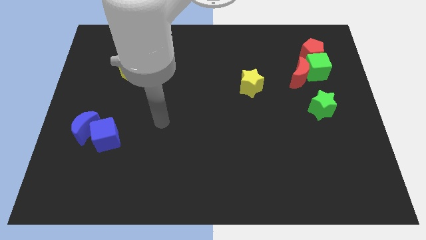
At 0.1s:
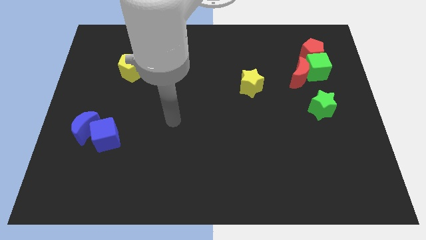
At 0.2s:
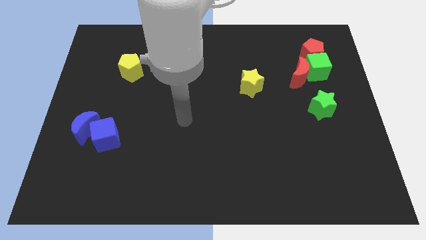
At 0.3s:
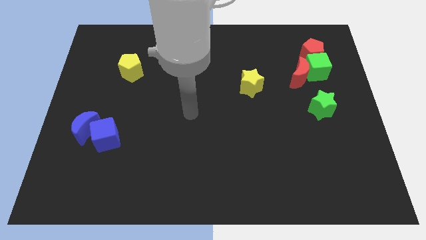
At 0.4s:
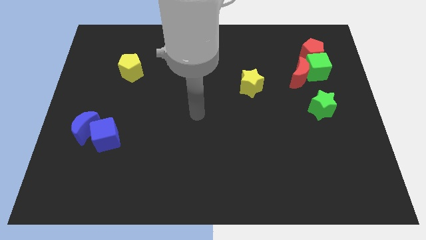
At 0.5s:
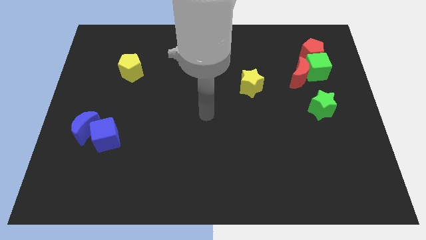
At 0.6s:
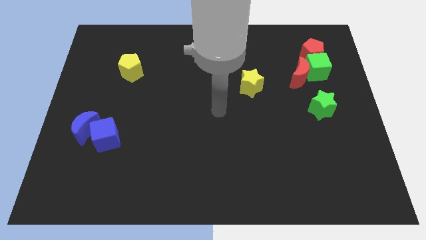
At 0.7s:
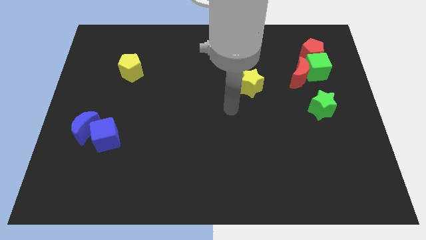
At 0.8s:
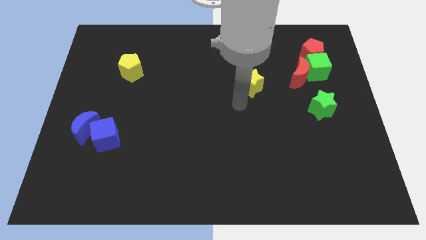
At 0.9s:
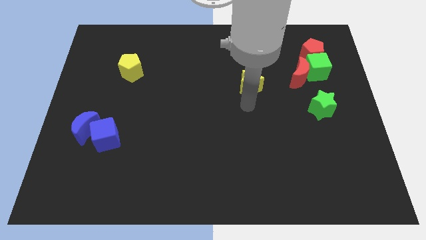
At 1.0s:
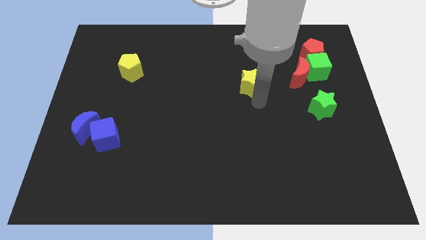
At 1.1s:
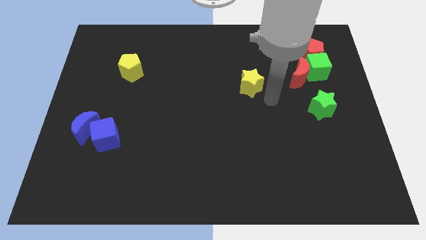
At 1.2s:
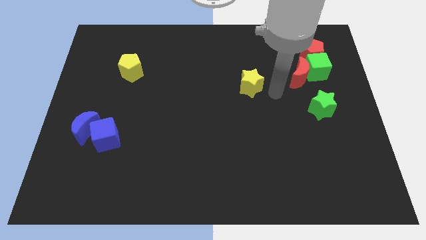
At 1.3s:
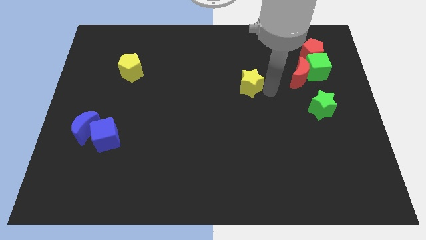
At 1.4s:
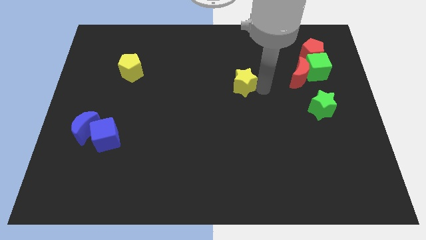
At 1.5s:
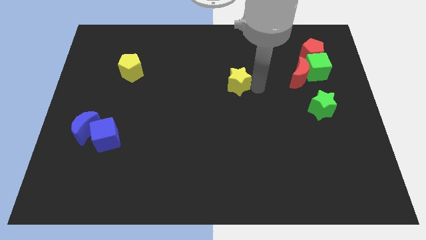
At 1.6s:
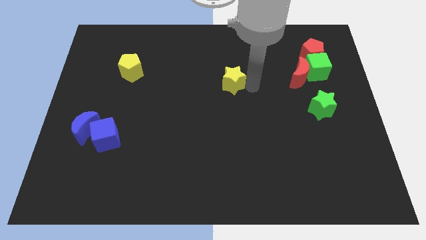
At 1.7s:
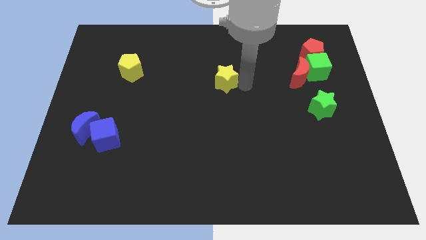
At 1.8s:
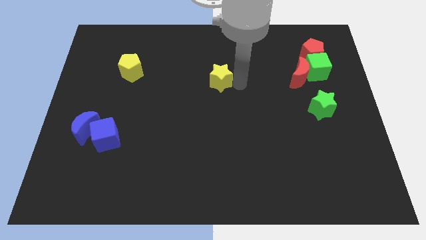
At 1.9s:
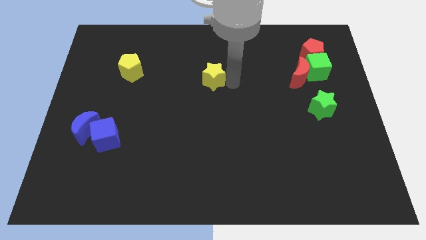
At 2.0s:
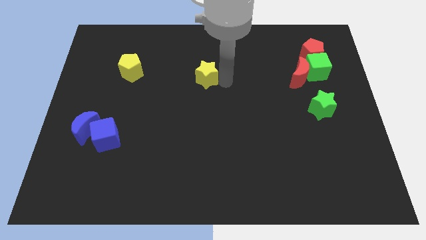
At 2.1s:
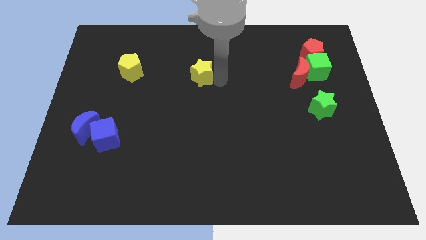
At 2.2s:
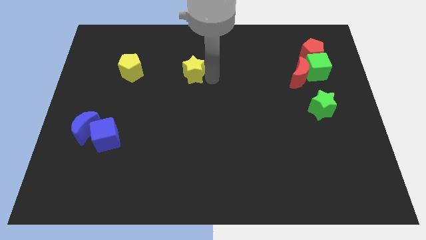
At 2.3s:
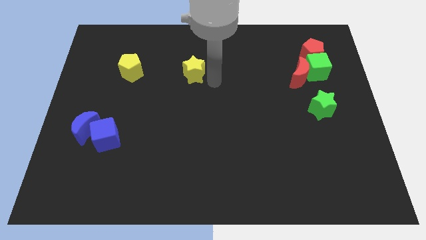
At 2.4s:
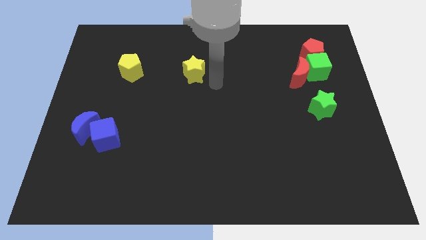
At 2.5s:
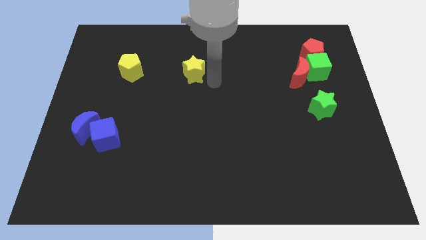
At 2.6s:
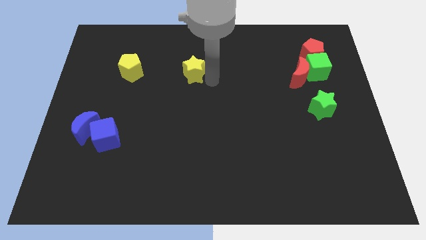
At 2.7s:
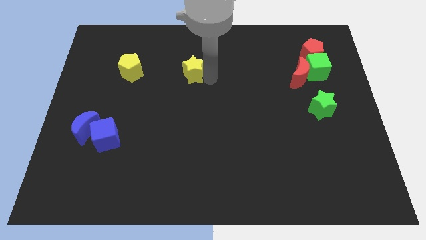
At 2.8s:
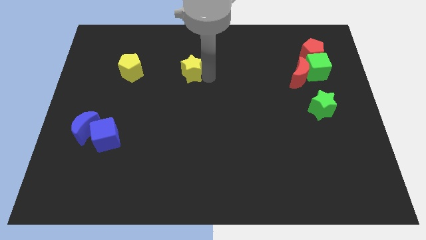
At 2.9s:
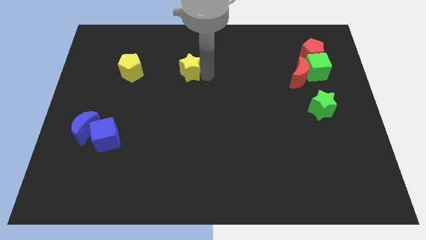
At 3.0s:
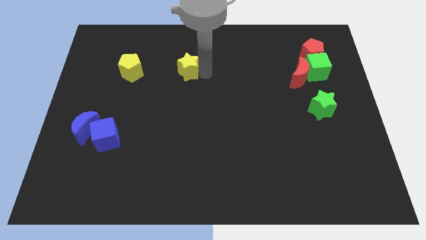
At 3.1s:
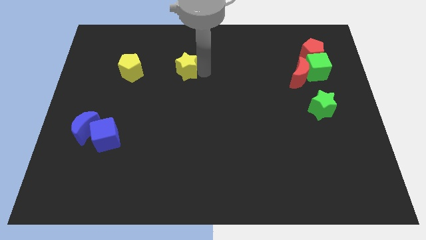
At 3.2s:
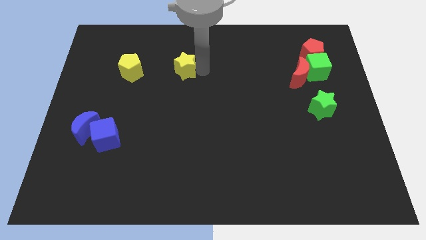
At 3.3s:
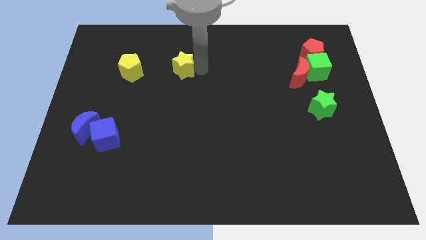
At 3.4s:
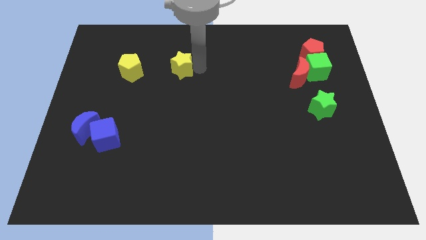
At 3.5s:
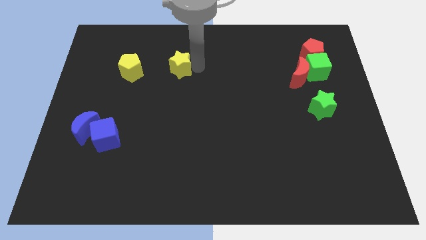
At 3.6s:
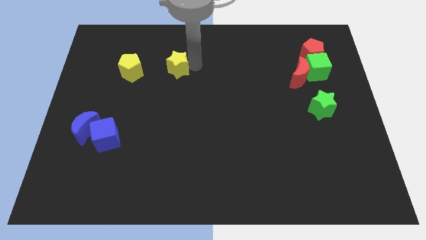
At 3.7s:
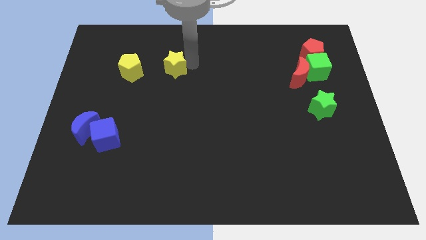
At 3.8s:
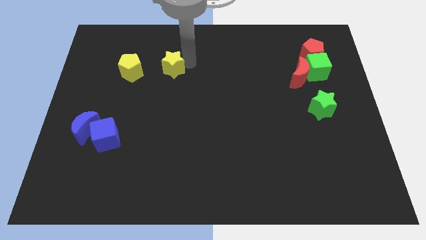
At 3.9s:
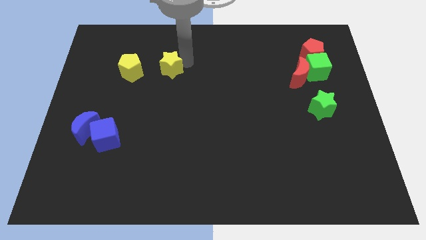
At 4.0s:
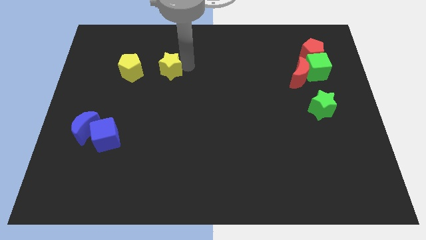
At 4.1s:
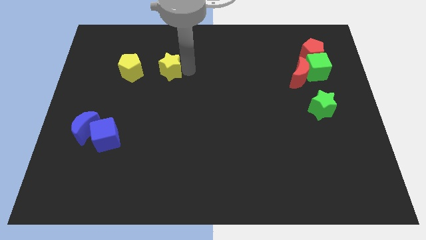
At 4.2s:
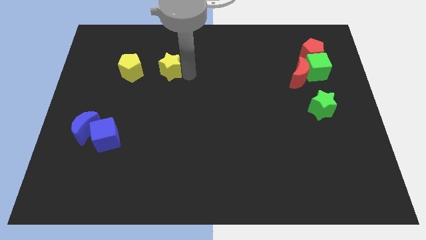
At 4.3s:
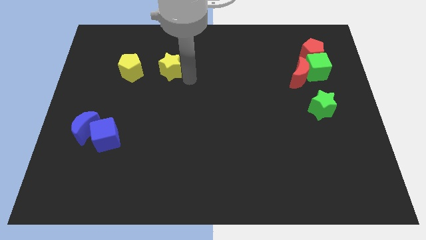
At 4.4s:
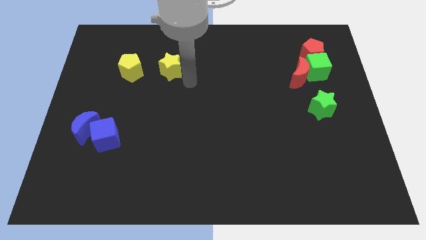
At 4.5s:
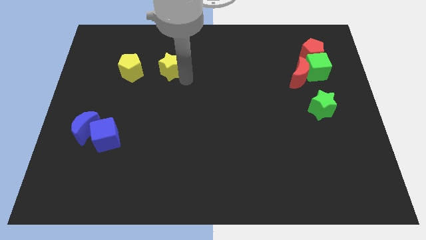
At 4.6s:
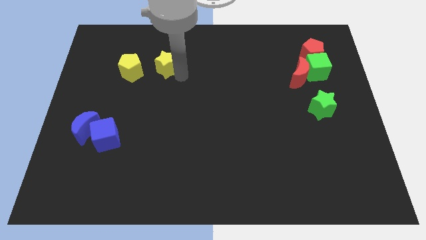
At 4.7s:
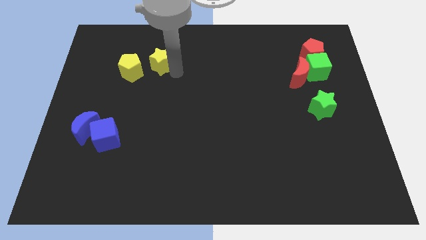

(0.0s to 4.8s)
push the yellow star to the top right of the yellow pentagon

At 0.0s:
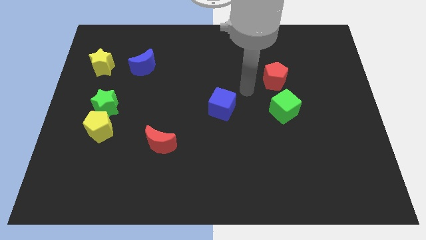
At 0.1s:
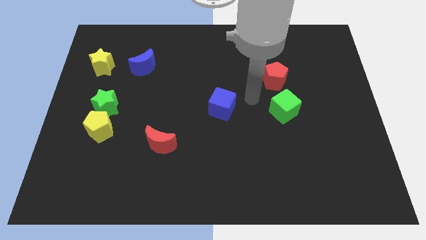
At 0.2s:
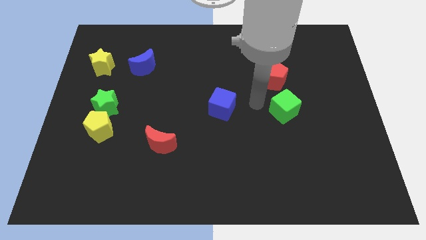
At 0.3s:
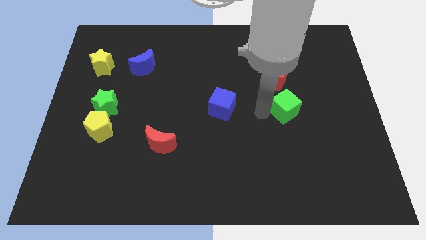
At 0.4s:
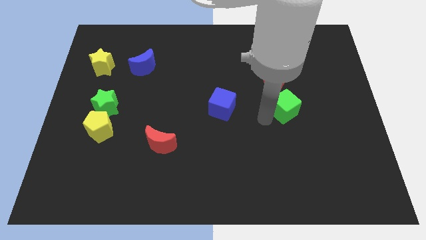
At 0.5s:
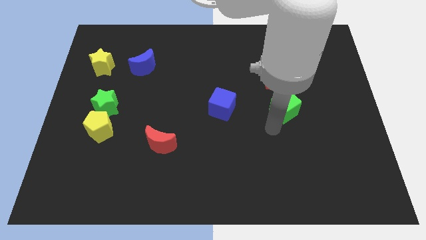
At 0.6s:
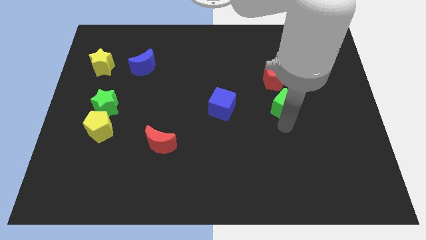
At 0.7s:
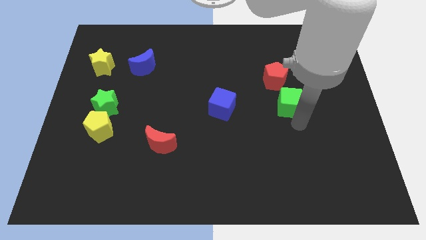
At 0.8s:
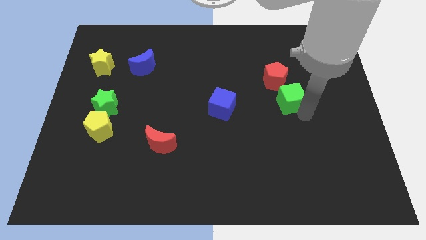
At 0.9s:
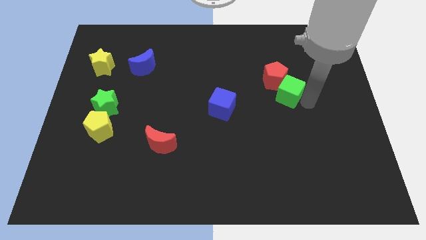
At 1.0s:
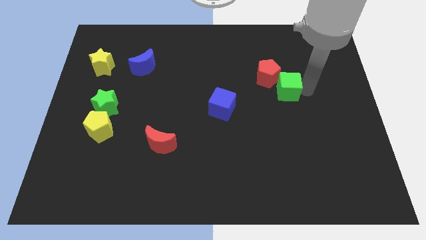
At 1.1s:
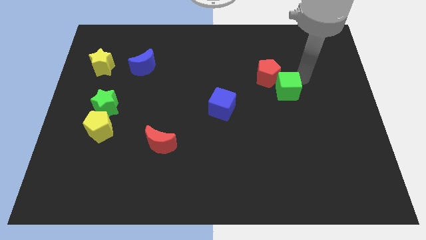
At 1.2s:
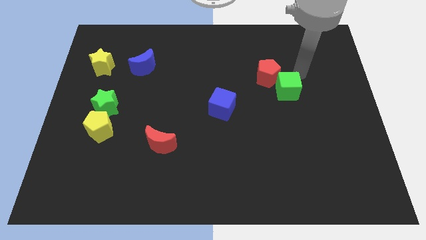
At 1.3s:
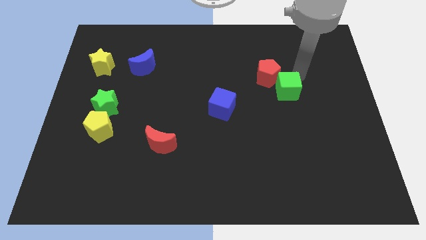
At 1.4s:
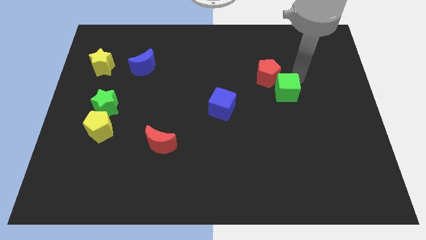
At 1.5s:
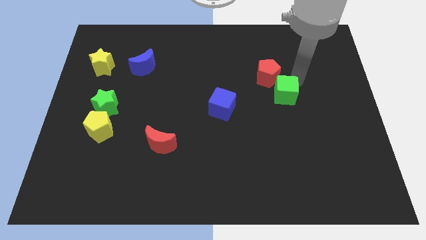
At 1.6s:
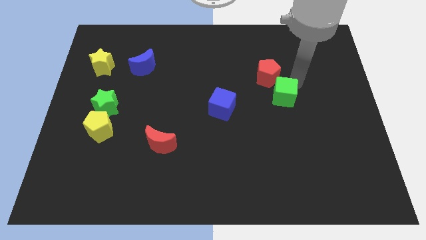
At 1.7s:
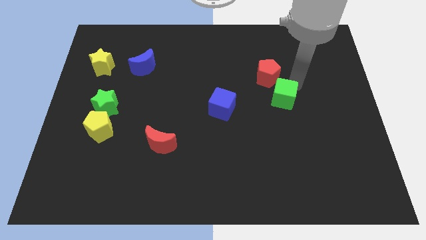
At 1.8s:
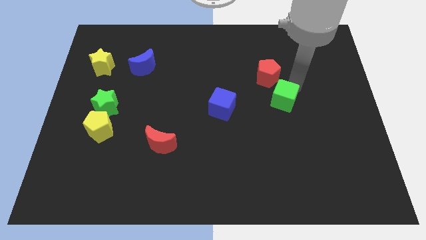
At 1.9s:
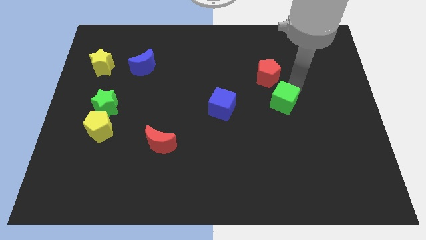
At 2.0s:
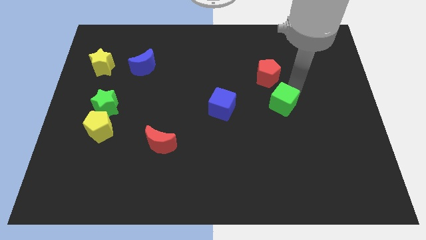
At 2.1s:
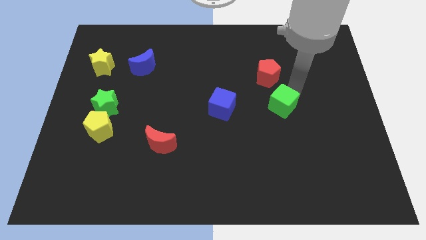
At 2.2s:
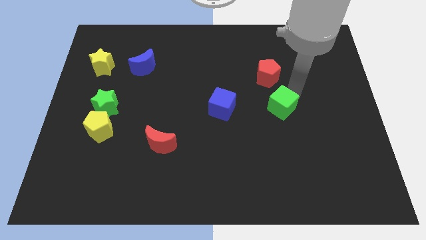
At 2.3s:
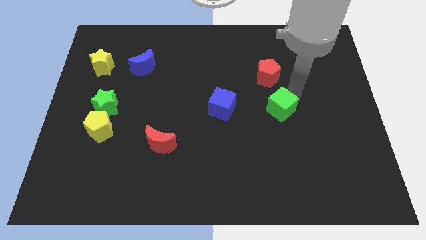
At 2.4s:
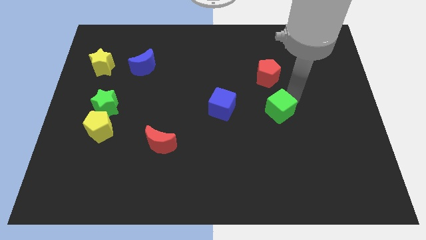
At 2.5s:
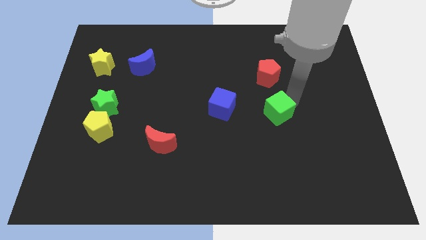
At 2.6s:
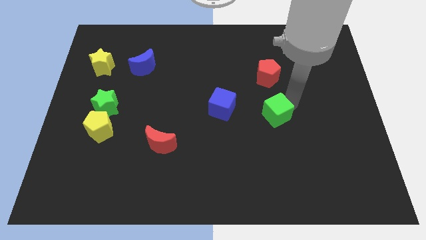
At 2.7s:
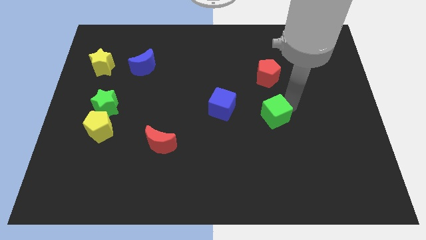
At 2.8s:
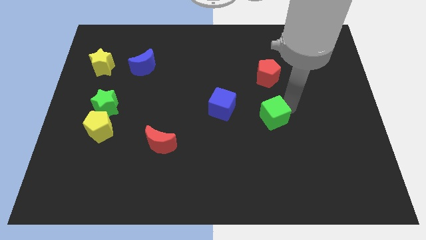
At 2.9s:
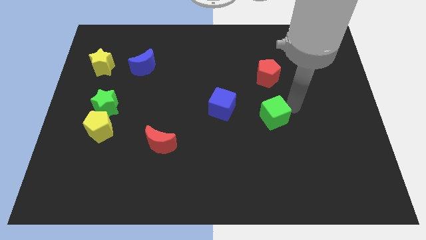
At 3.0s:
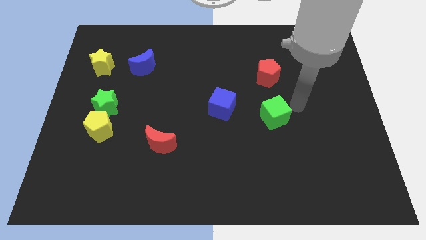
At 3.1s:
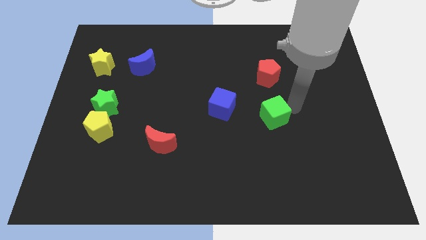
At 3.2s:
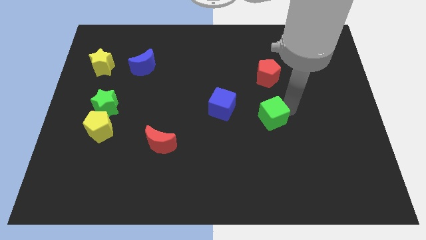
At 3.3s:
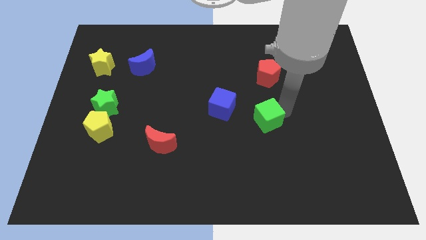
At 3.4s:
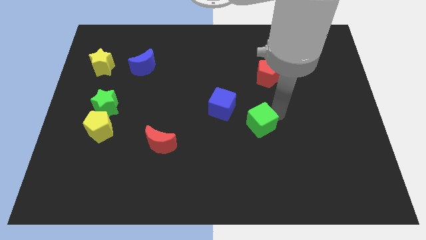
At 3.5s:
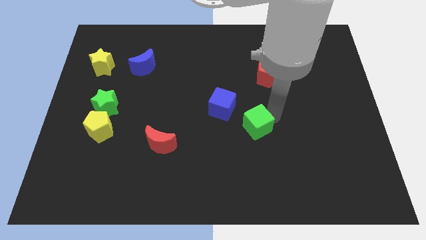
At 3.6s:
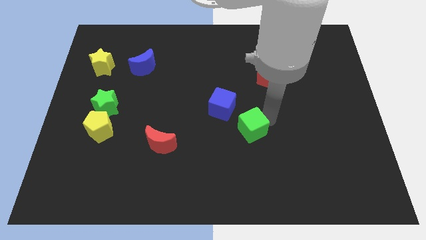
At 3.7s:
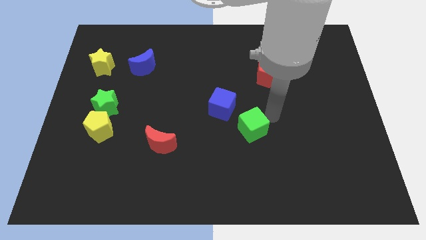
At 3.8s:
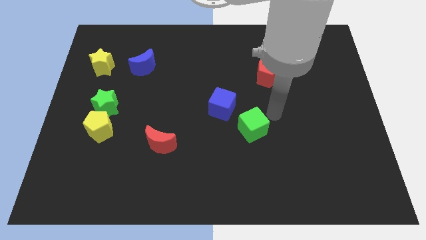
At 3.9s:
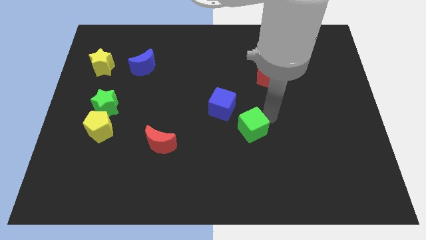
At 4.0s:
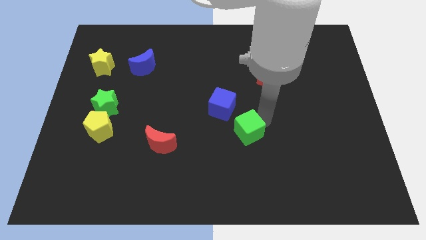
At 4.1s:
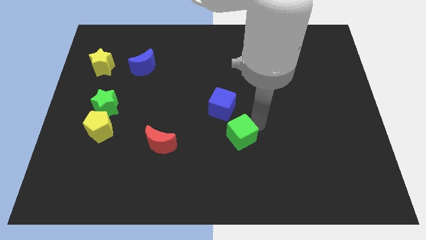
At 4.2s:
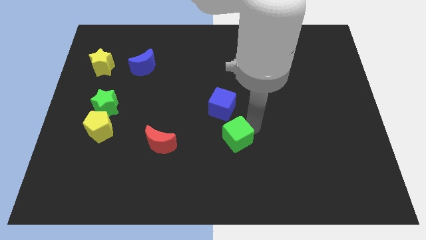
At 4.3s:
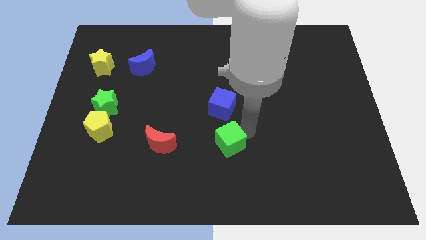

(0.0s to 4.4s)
put the green cube right of the red moon
